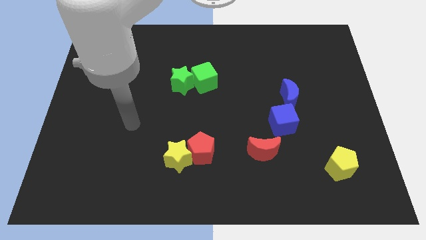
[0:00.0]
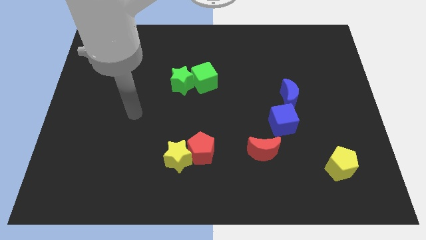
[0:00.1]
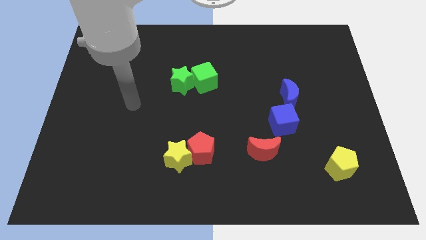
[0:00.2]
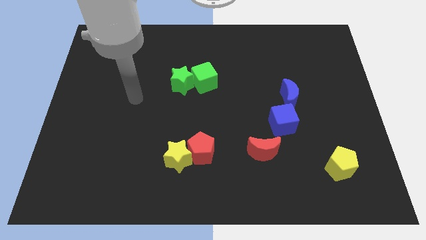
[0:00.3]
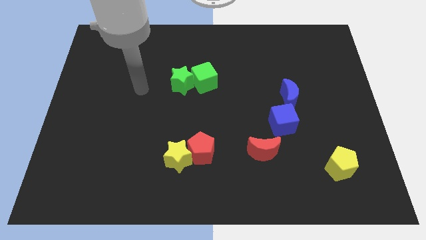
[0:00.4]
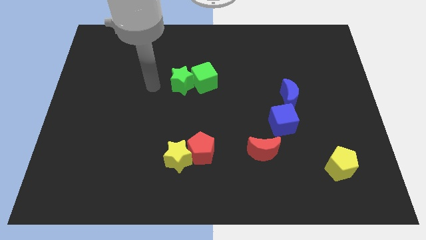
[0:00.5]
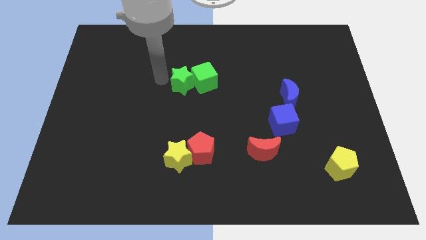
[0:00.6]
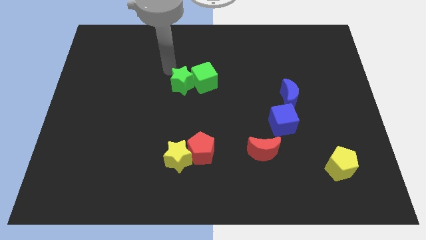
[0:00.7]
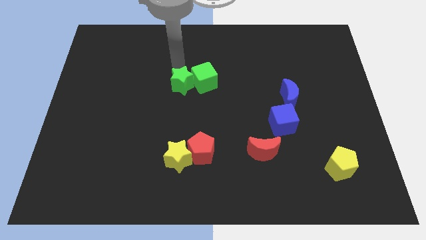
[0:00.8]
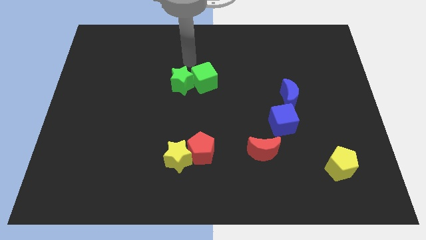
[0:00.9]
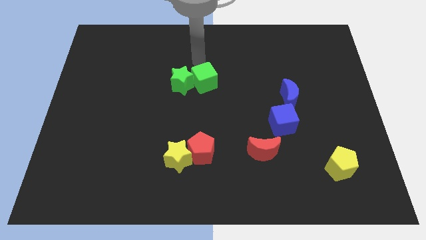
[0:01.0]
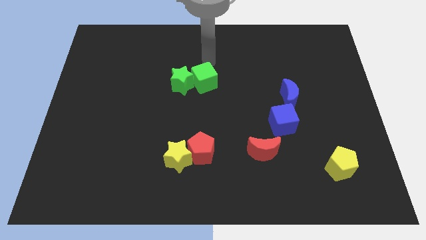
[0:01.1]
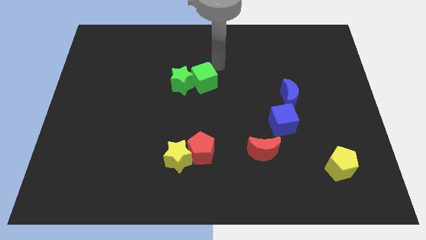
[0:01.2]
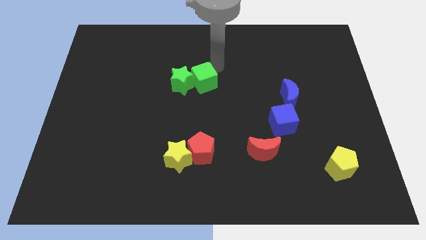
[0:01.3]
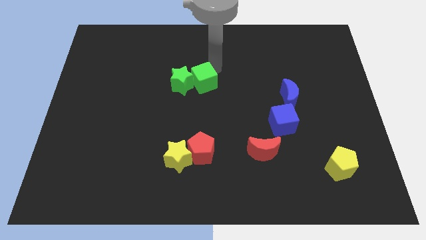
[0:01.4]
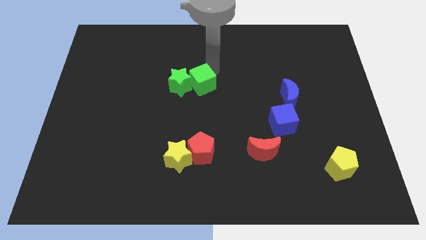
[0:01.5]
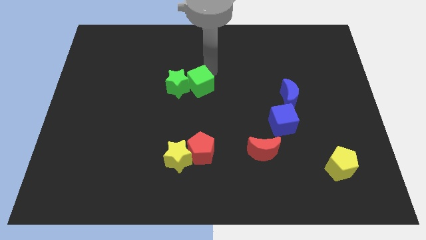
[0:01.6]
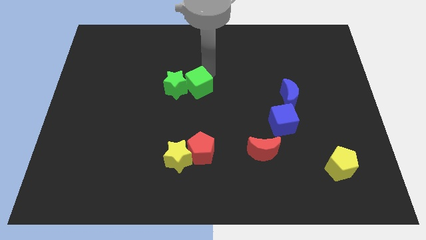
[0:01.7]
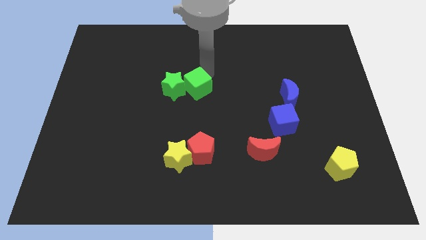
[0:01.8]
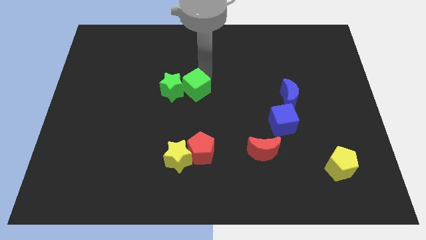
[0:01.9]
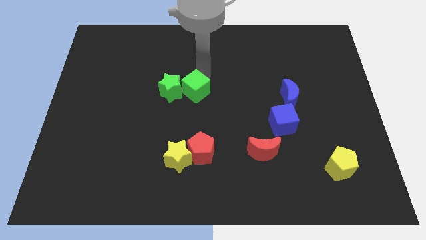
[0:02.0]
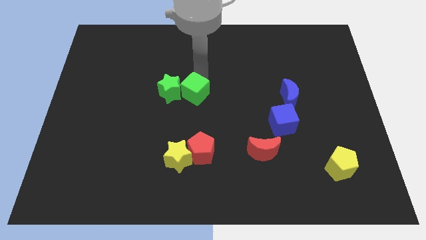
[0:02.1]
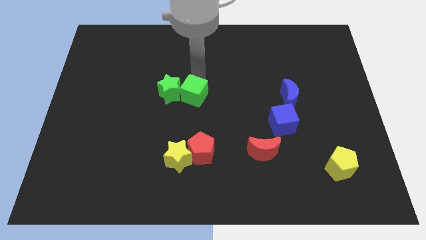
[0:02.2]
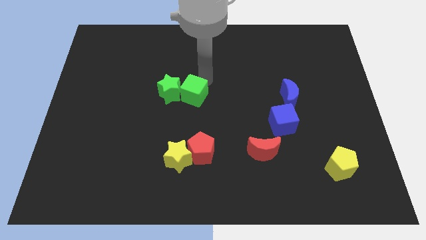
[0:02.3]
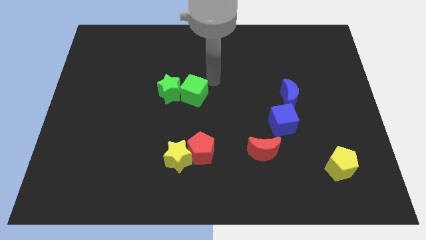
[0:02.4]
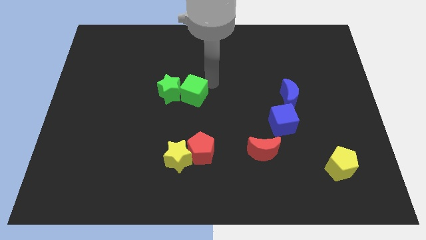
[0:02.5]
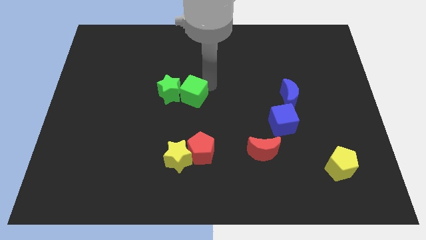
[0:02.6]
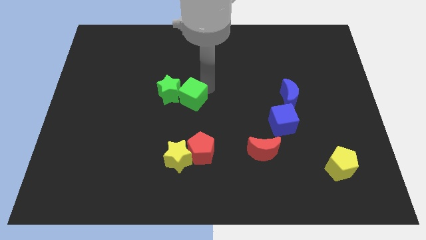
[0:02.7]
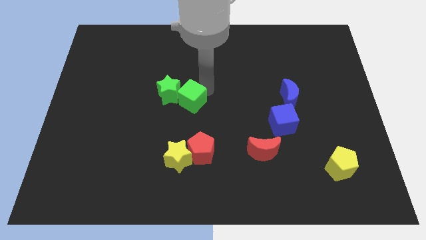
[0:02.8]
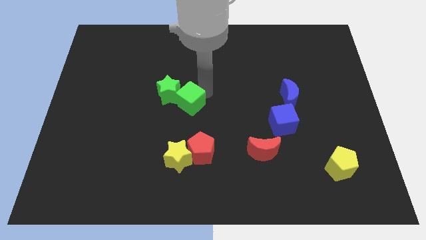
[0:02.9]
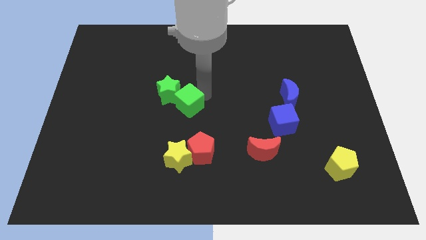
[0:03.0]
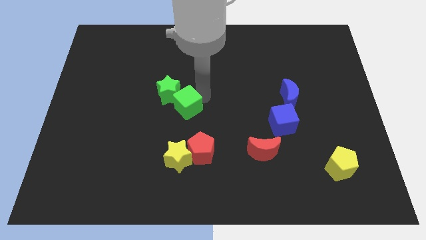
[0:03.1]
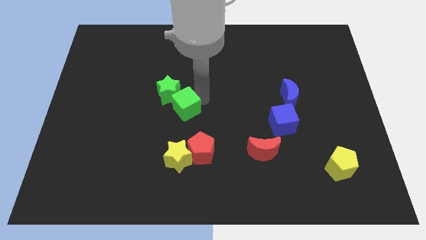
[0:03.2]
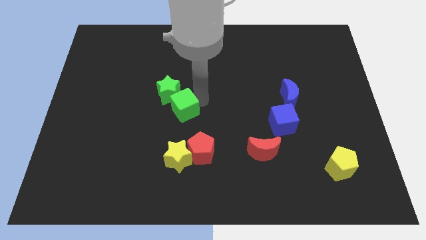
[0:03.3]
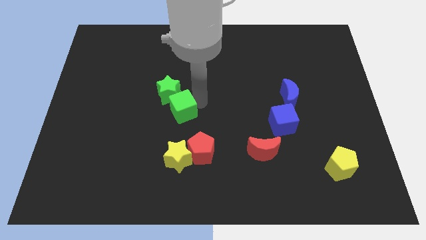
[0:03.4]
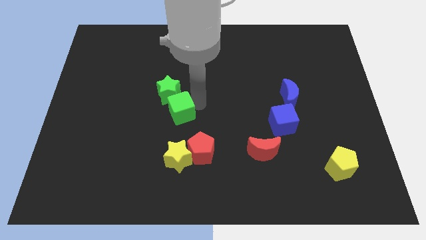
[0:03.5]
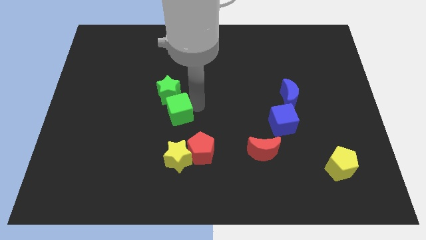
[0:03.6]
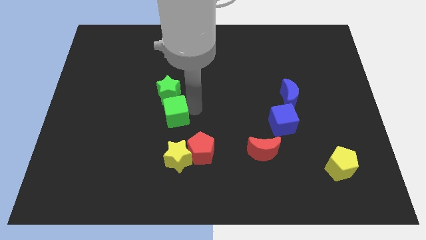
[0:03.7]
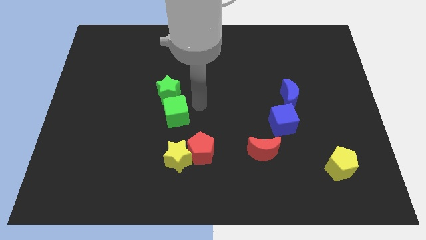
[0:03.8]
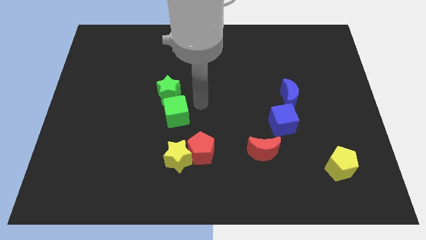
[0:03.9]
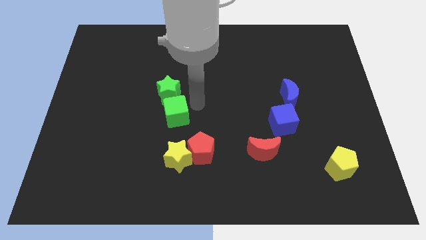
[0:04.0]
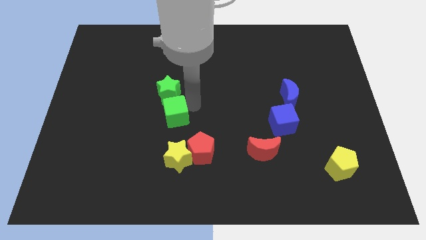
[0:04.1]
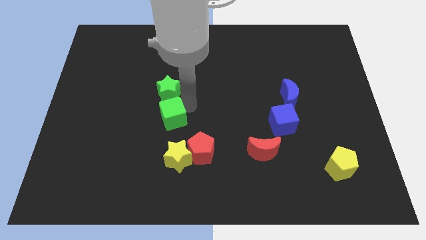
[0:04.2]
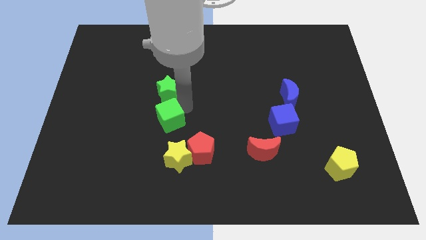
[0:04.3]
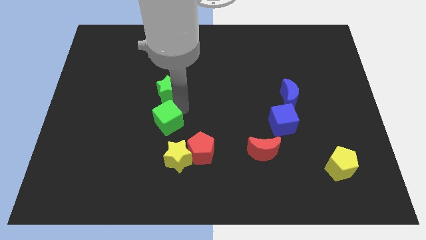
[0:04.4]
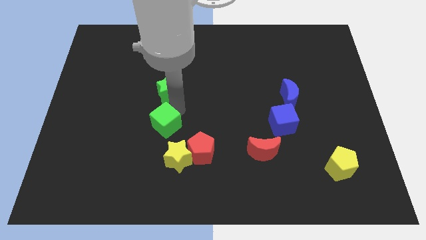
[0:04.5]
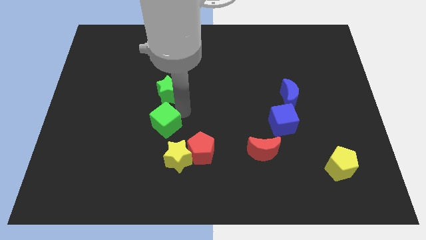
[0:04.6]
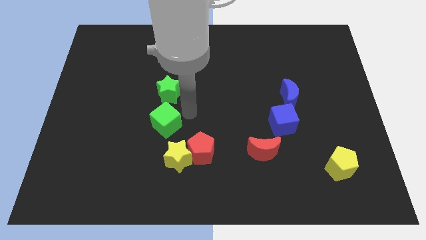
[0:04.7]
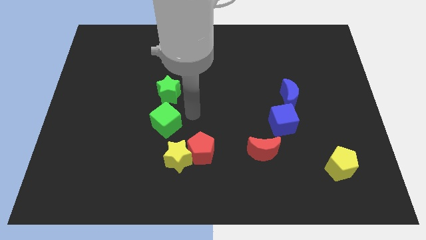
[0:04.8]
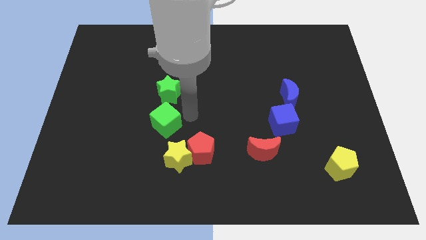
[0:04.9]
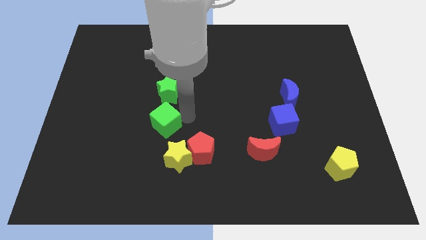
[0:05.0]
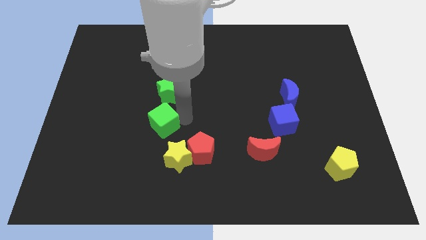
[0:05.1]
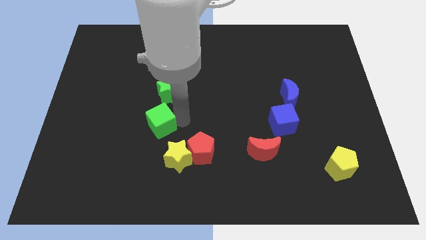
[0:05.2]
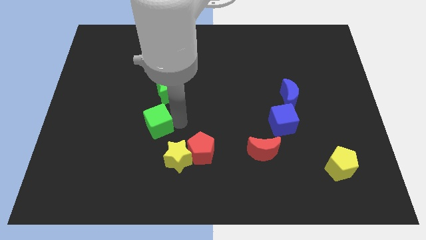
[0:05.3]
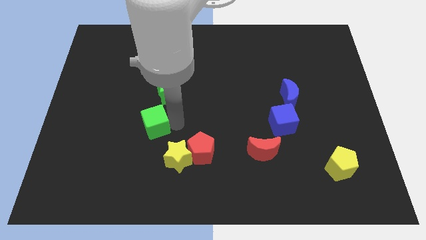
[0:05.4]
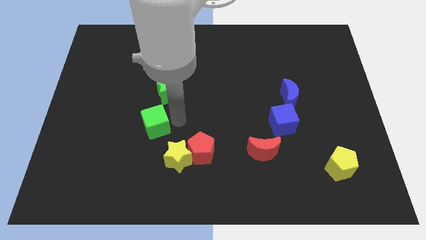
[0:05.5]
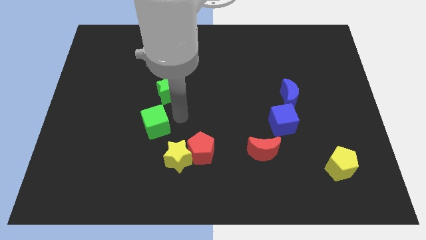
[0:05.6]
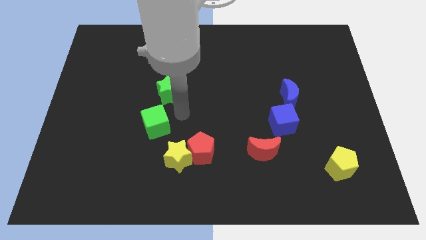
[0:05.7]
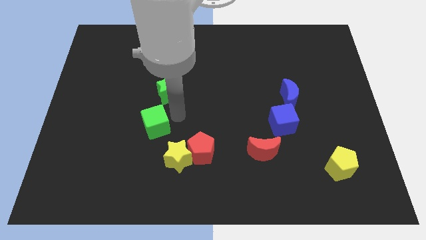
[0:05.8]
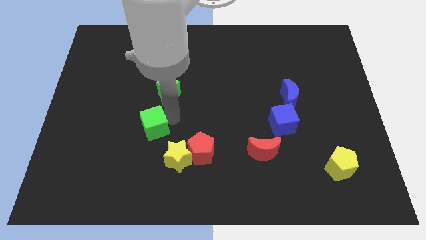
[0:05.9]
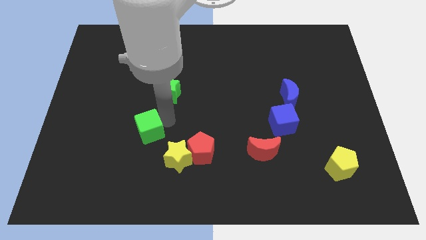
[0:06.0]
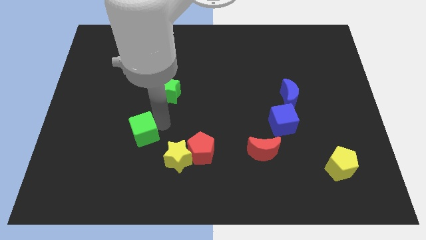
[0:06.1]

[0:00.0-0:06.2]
push the green cube diagonally down and left

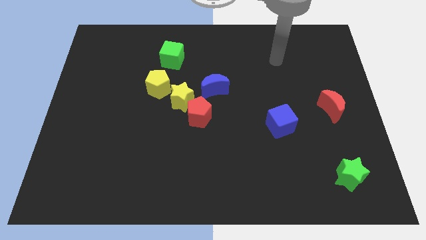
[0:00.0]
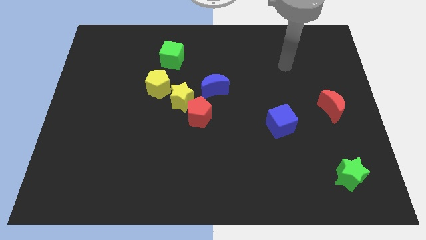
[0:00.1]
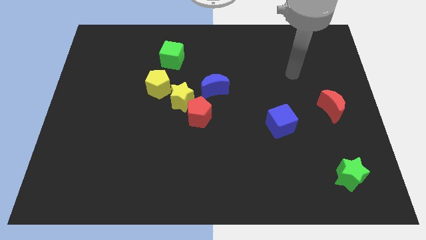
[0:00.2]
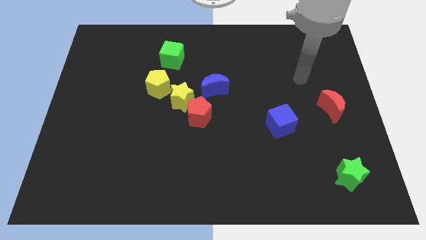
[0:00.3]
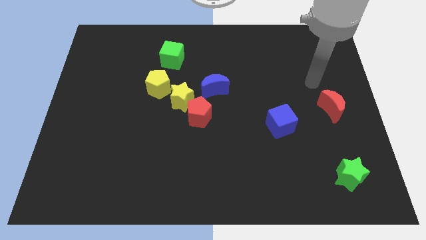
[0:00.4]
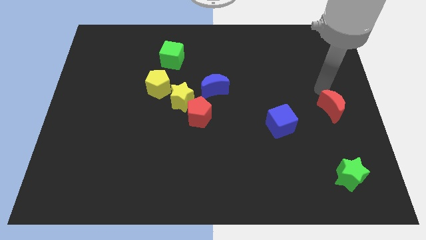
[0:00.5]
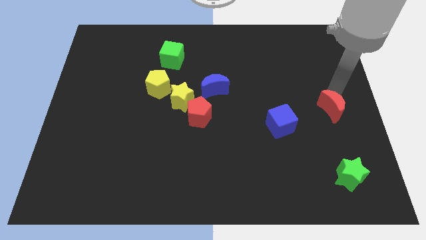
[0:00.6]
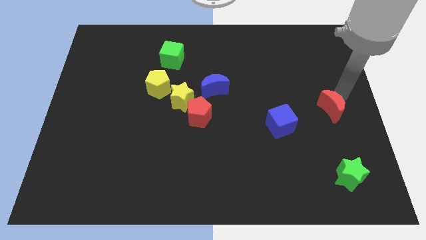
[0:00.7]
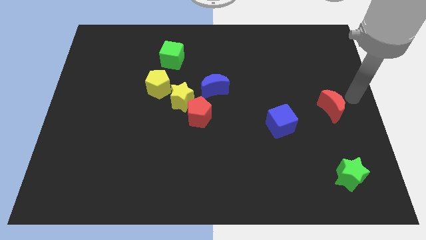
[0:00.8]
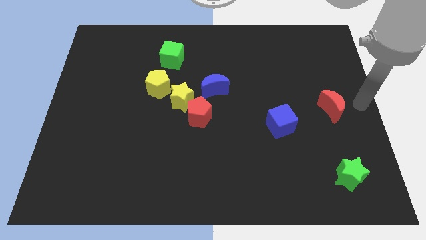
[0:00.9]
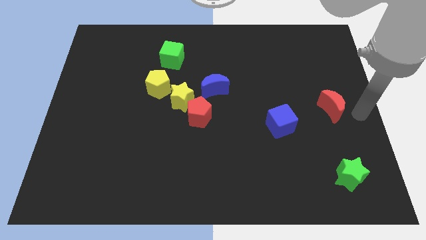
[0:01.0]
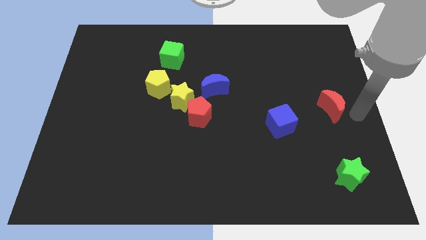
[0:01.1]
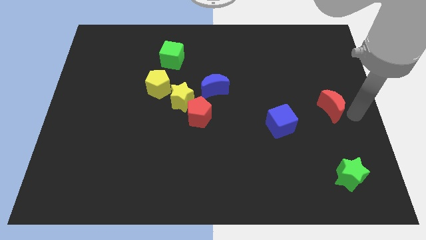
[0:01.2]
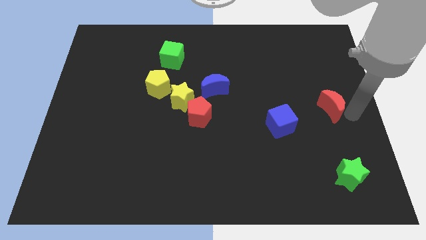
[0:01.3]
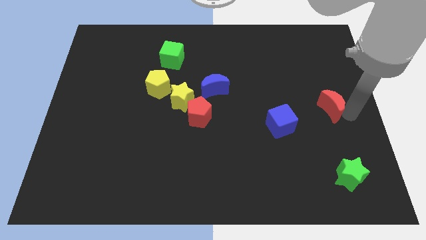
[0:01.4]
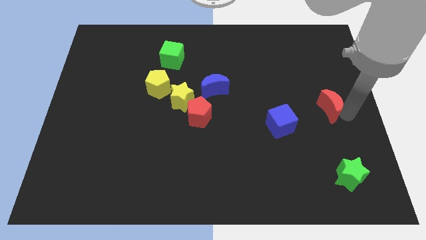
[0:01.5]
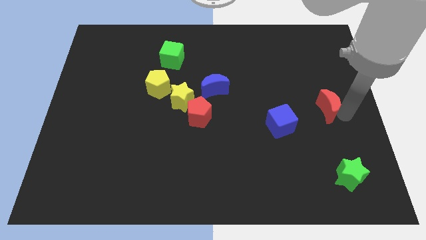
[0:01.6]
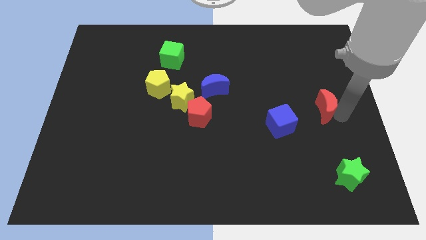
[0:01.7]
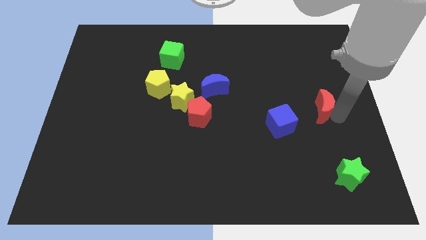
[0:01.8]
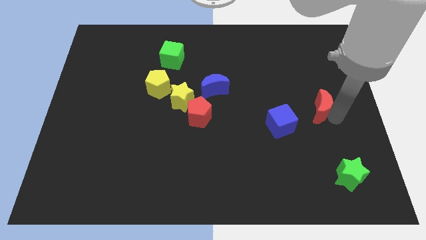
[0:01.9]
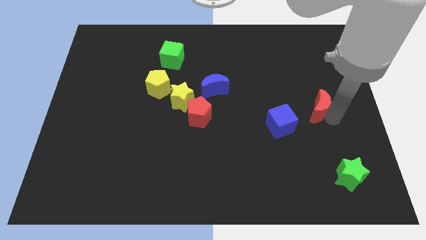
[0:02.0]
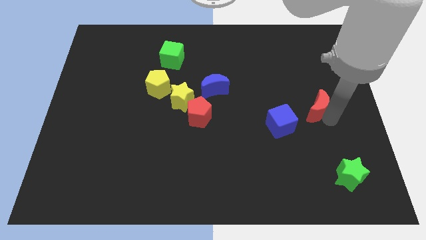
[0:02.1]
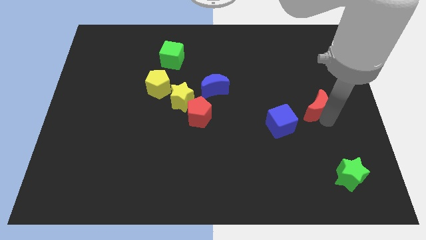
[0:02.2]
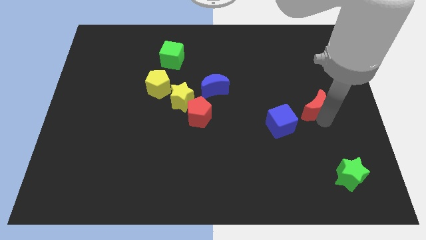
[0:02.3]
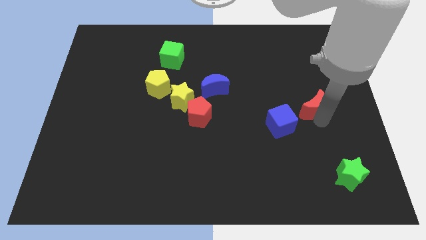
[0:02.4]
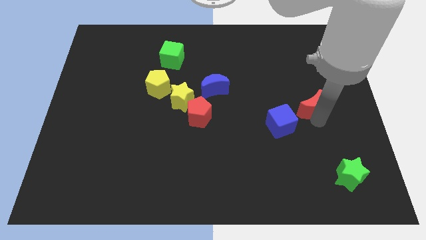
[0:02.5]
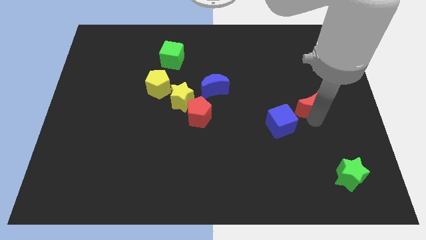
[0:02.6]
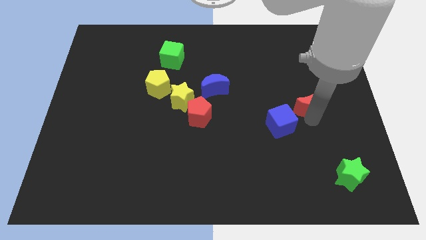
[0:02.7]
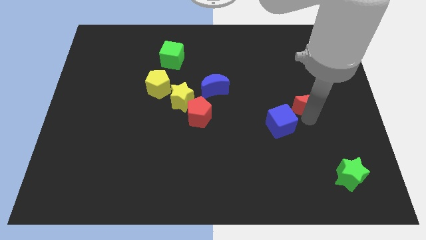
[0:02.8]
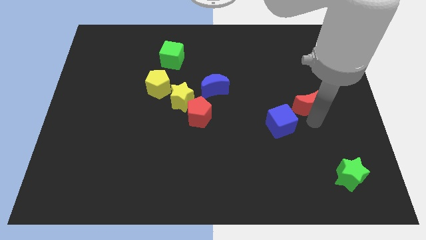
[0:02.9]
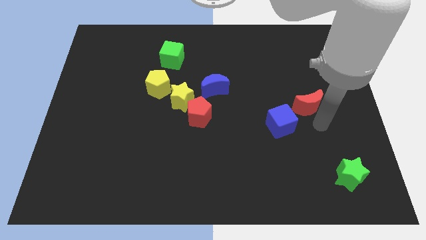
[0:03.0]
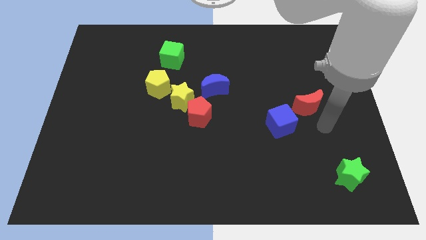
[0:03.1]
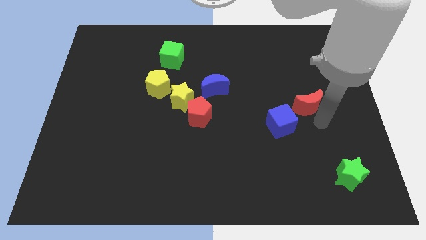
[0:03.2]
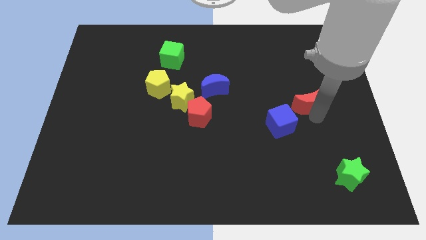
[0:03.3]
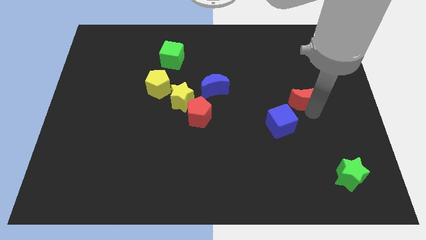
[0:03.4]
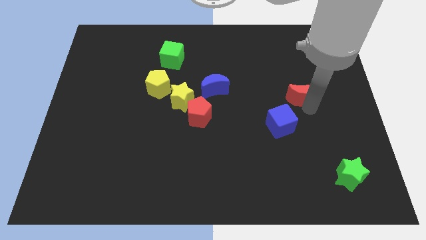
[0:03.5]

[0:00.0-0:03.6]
slide the red moon diagonally up and to the left slightly
